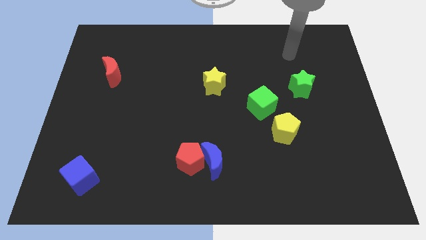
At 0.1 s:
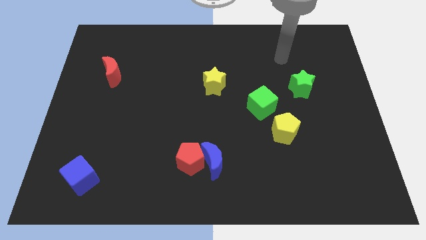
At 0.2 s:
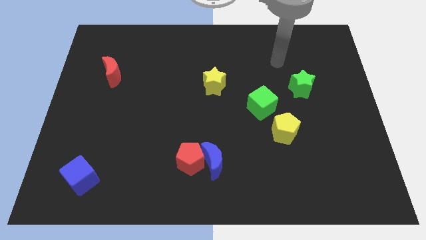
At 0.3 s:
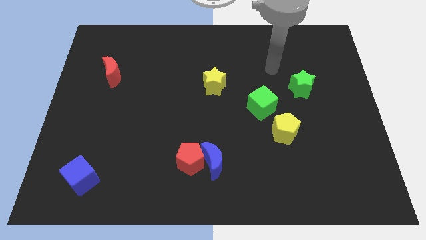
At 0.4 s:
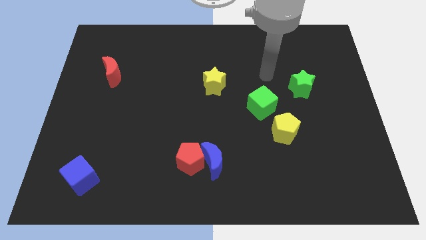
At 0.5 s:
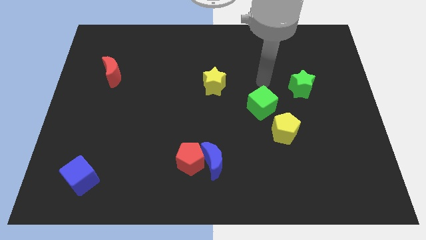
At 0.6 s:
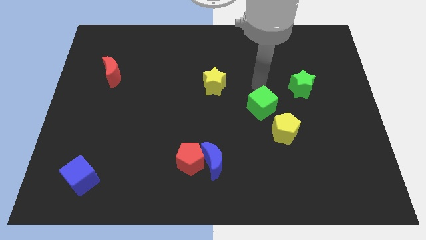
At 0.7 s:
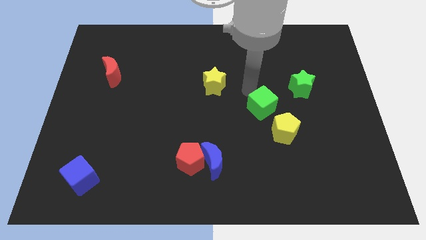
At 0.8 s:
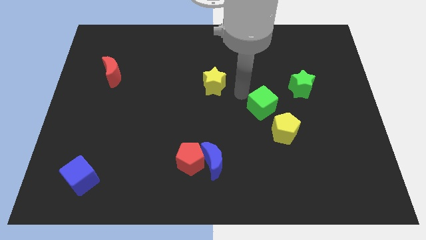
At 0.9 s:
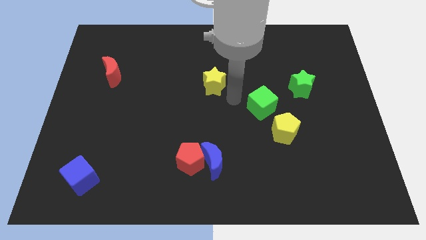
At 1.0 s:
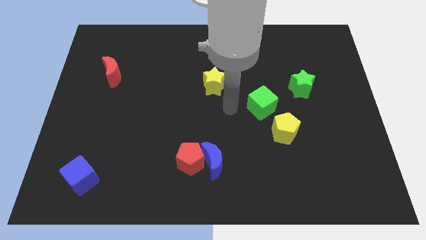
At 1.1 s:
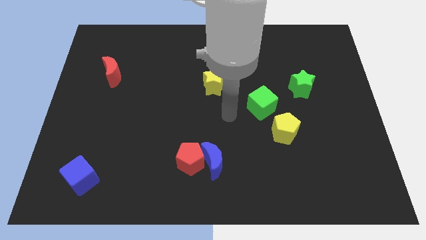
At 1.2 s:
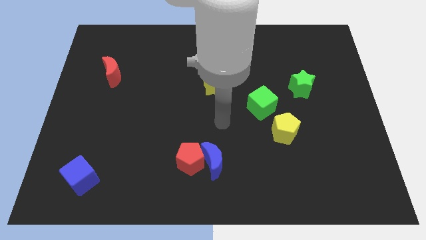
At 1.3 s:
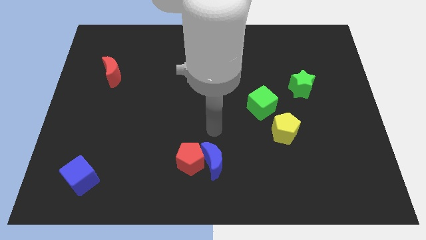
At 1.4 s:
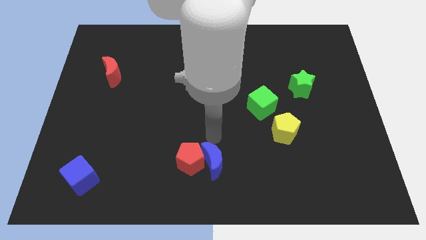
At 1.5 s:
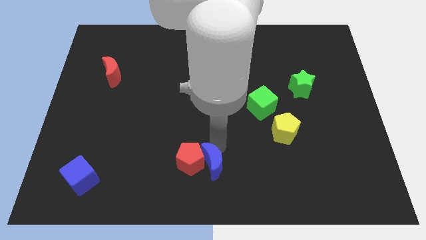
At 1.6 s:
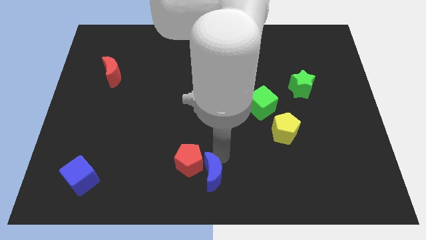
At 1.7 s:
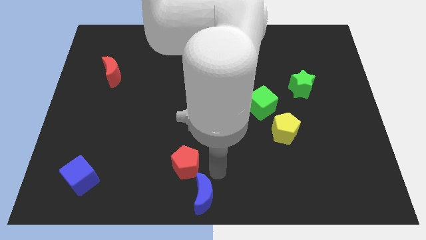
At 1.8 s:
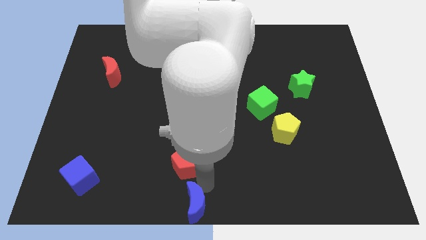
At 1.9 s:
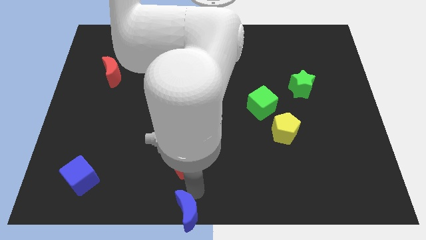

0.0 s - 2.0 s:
separate the red pentagon from the blue moon

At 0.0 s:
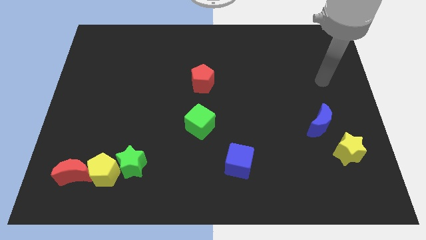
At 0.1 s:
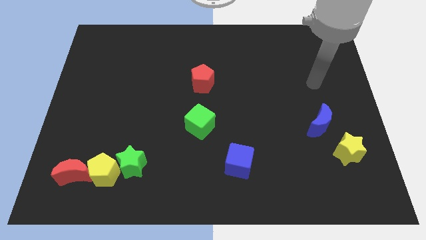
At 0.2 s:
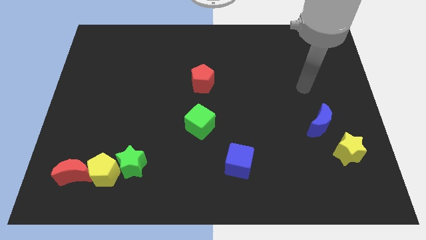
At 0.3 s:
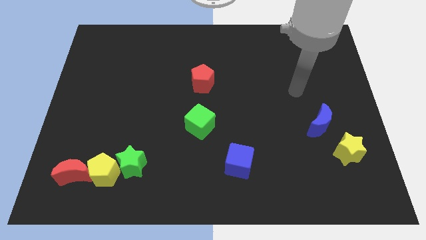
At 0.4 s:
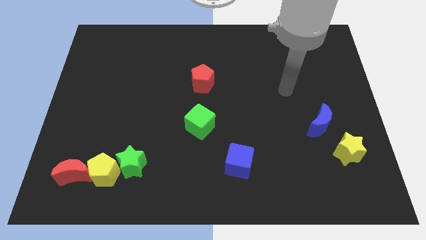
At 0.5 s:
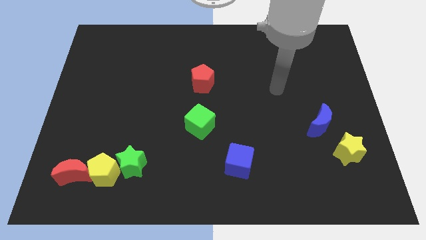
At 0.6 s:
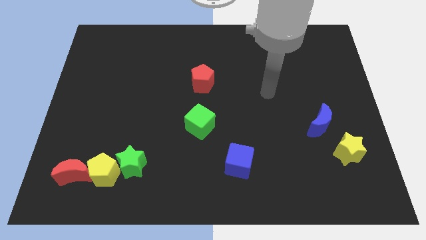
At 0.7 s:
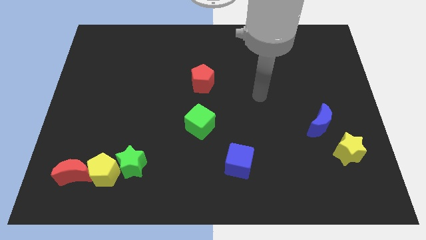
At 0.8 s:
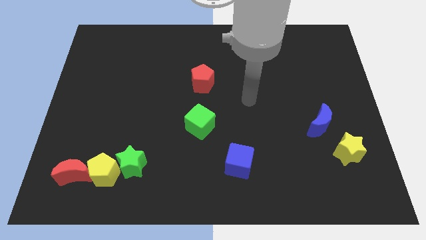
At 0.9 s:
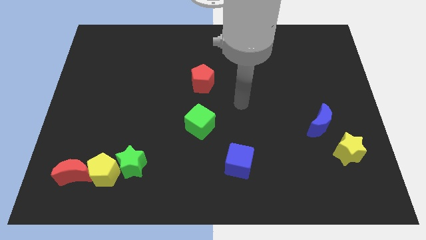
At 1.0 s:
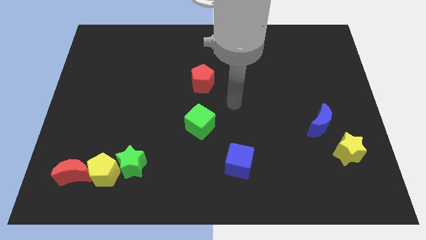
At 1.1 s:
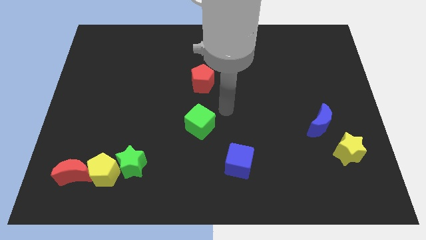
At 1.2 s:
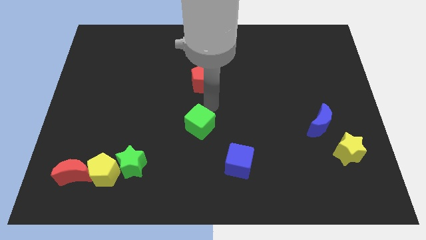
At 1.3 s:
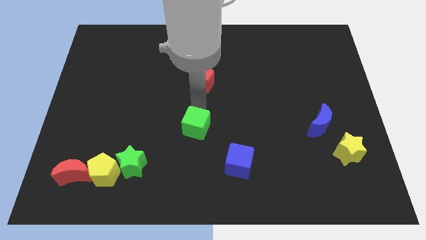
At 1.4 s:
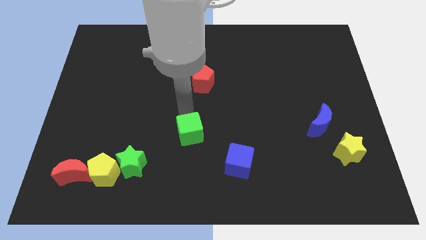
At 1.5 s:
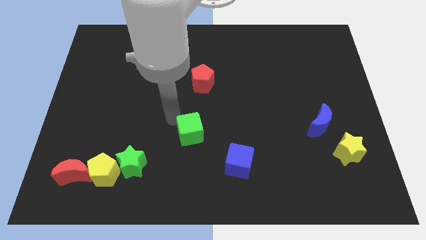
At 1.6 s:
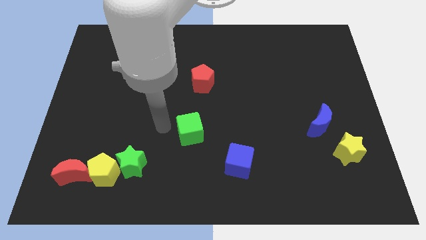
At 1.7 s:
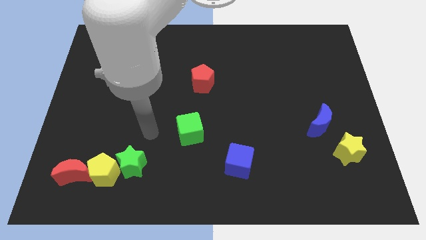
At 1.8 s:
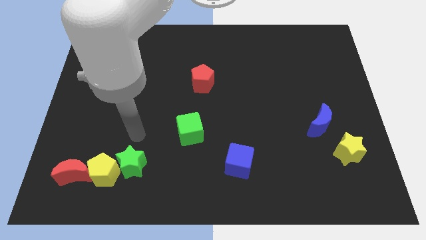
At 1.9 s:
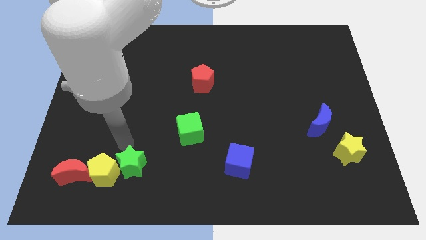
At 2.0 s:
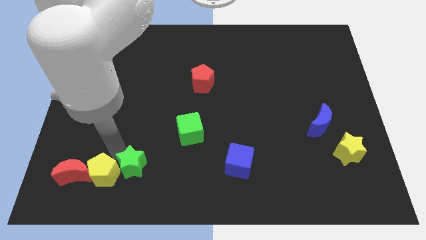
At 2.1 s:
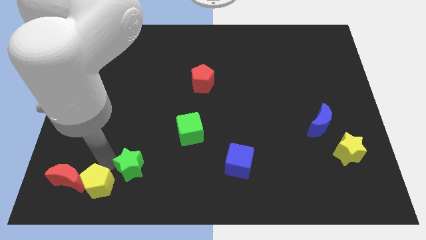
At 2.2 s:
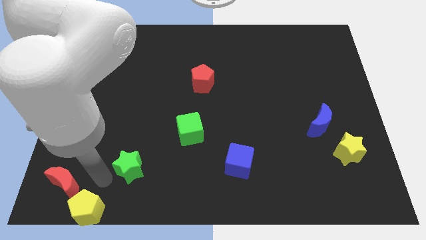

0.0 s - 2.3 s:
pull the green star apart from the yellow pentagon

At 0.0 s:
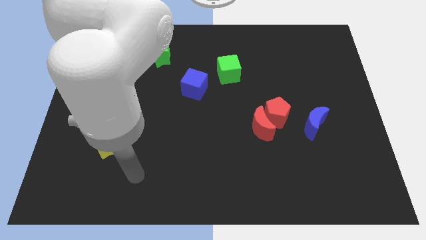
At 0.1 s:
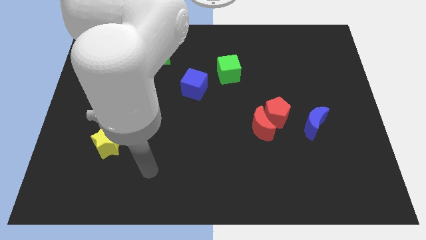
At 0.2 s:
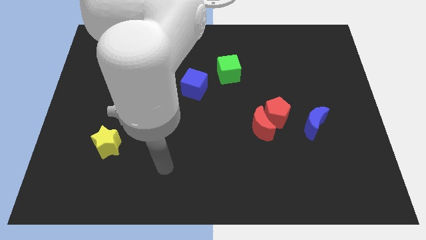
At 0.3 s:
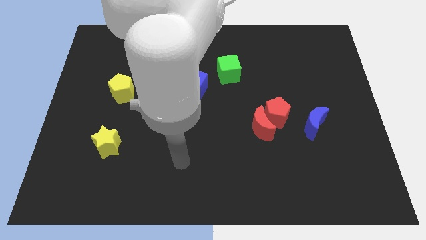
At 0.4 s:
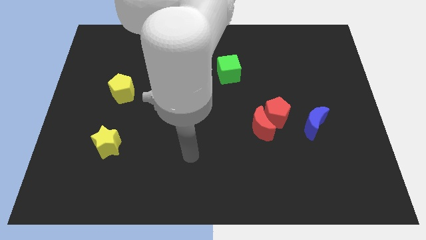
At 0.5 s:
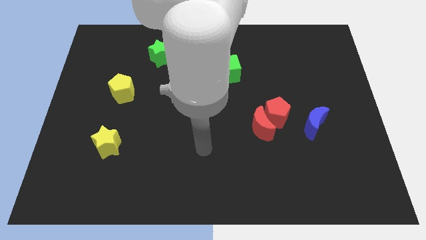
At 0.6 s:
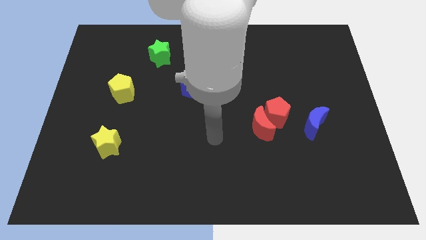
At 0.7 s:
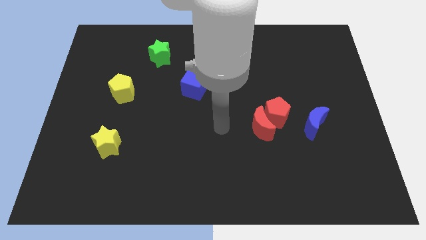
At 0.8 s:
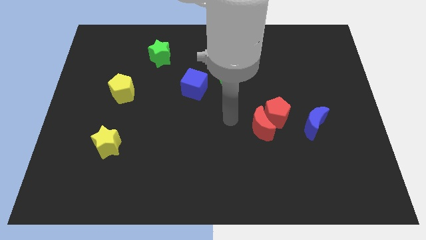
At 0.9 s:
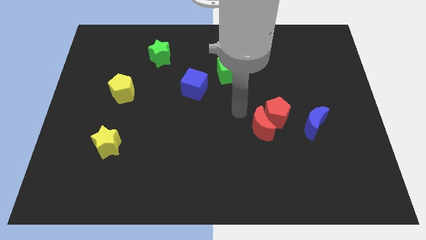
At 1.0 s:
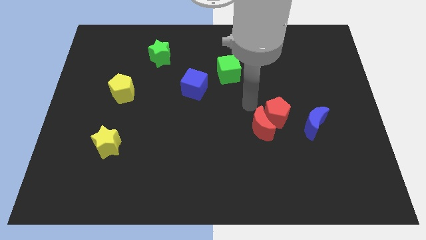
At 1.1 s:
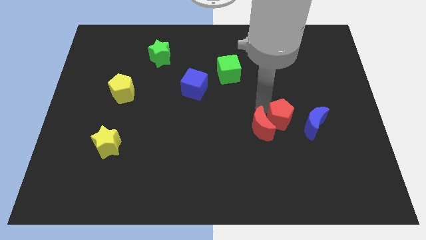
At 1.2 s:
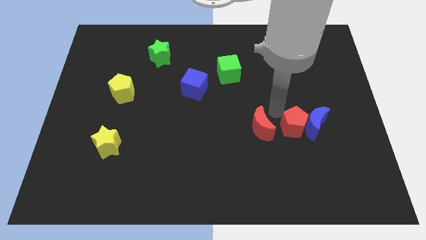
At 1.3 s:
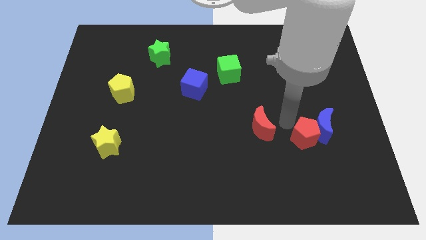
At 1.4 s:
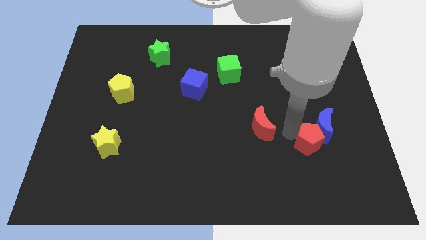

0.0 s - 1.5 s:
move the red moon away from the red pentagon

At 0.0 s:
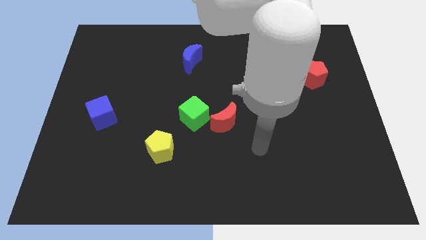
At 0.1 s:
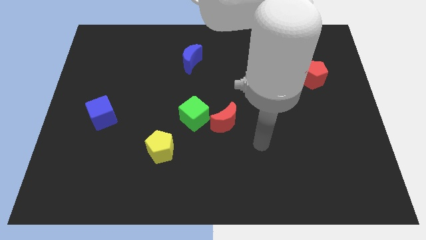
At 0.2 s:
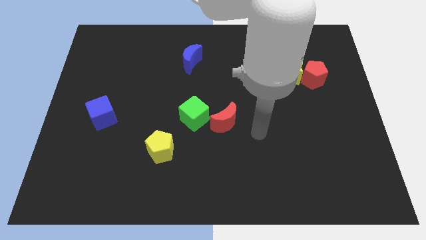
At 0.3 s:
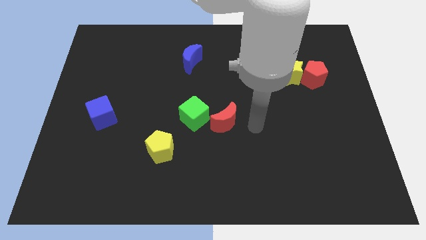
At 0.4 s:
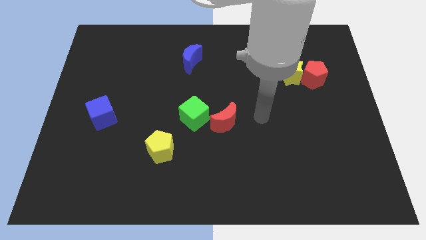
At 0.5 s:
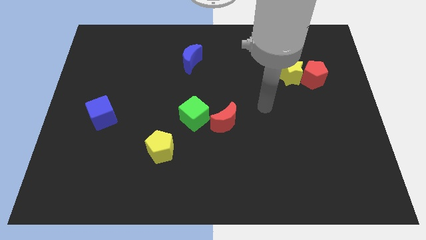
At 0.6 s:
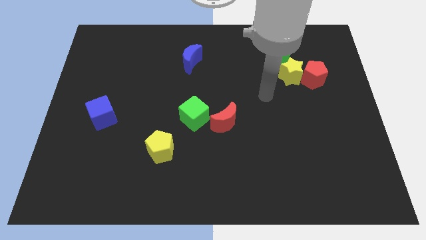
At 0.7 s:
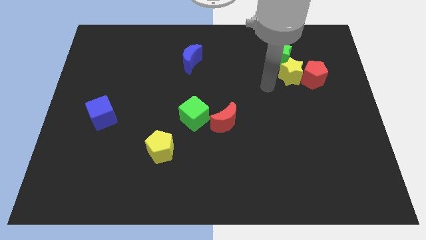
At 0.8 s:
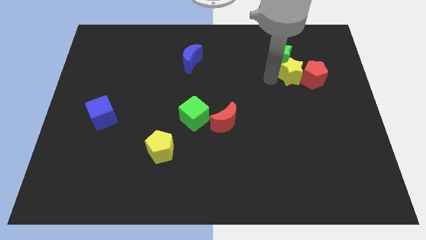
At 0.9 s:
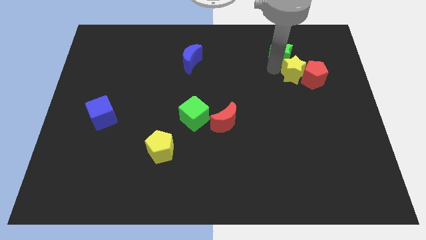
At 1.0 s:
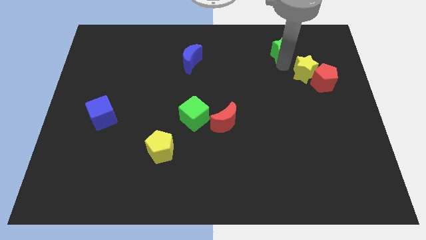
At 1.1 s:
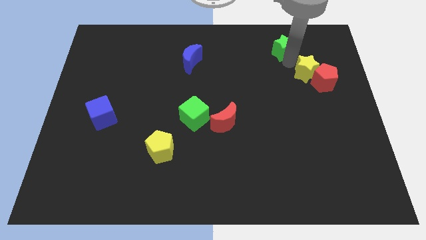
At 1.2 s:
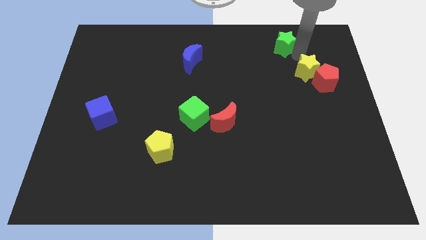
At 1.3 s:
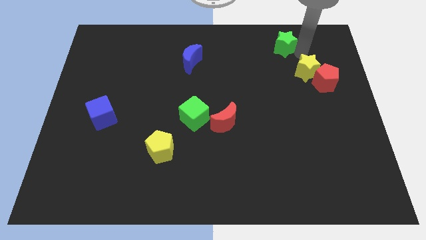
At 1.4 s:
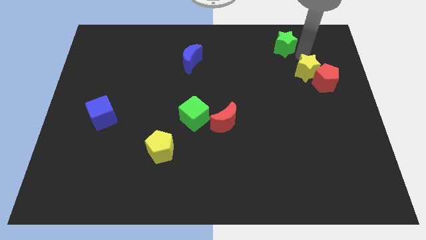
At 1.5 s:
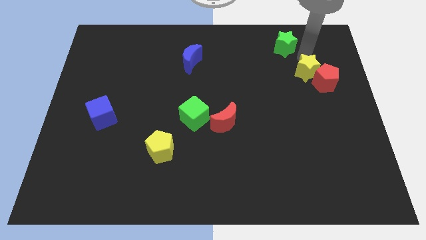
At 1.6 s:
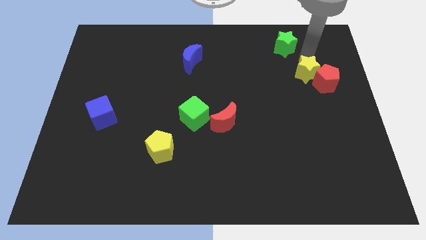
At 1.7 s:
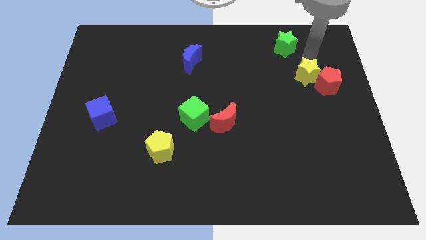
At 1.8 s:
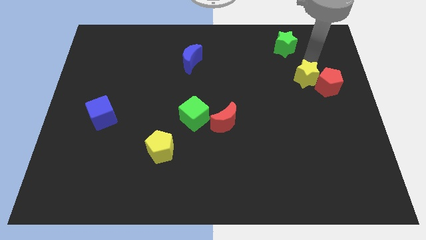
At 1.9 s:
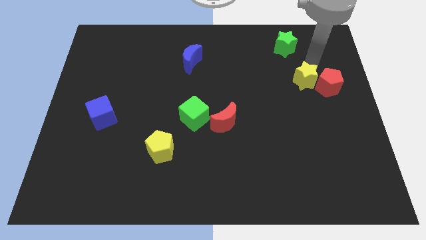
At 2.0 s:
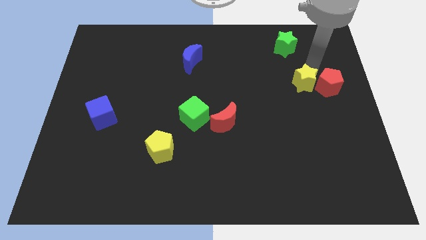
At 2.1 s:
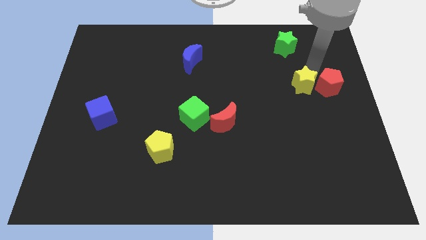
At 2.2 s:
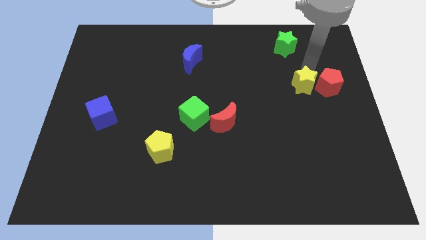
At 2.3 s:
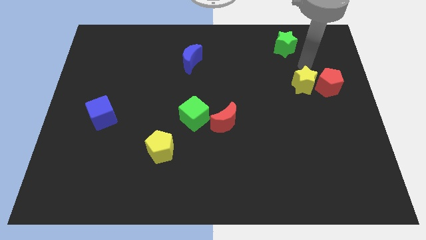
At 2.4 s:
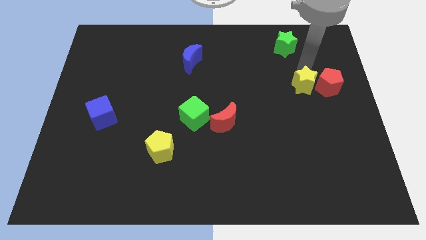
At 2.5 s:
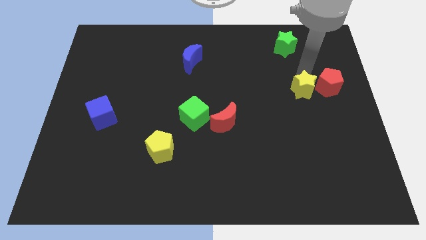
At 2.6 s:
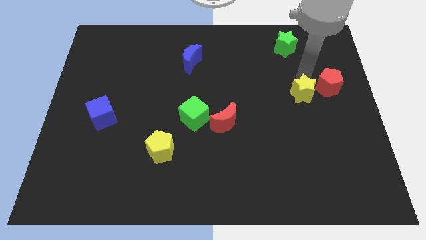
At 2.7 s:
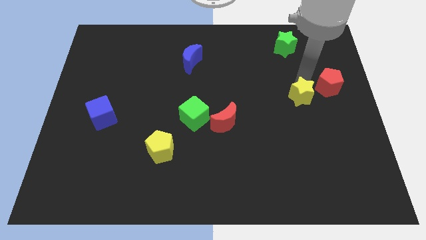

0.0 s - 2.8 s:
pull the yellow star apart from the red pentagon and green star

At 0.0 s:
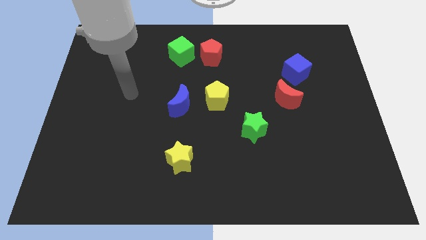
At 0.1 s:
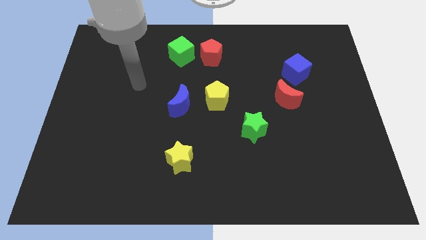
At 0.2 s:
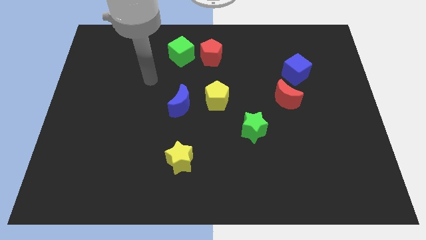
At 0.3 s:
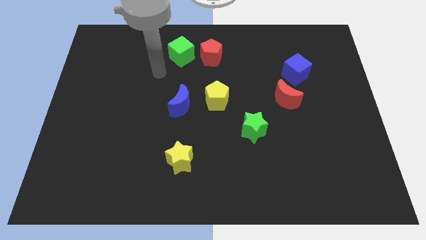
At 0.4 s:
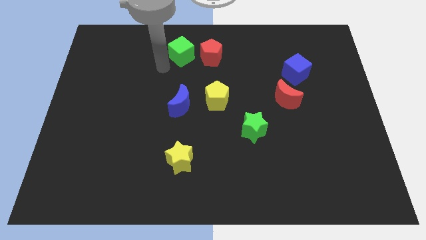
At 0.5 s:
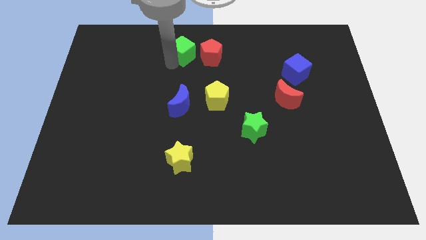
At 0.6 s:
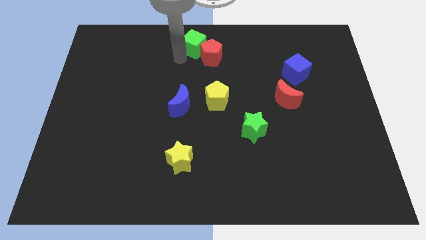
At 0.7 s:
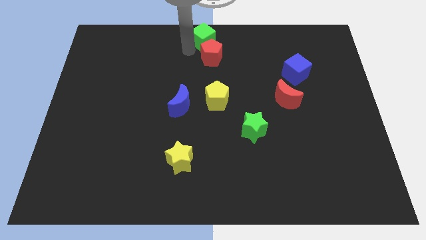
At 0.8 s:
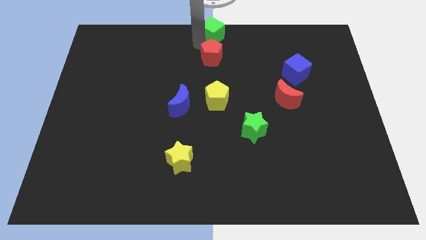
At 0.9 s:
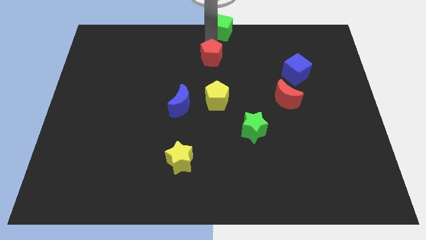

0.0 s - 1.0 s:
separate the red pentagon from the green cube
